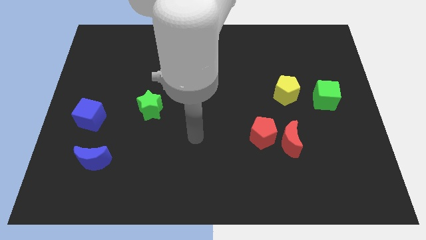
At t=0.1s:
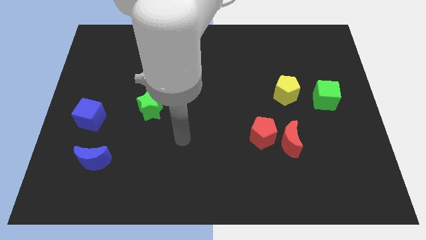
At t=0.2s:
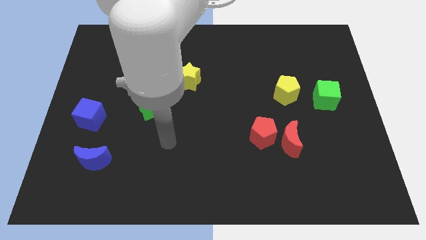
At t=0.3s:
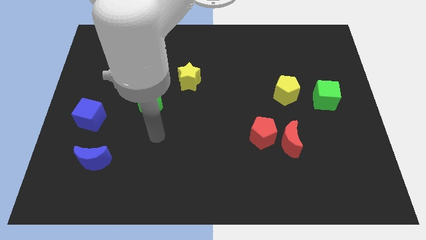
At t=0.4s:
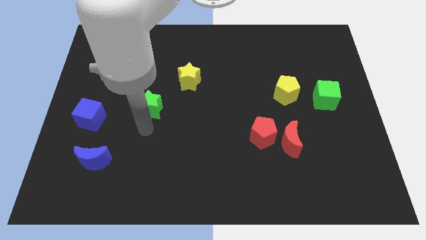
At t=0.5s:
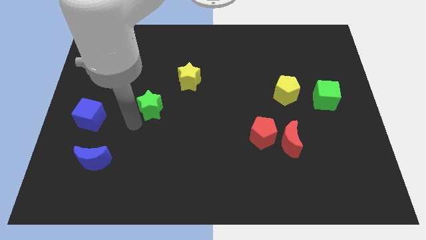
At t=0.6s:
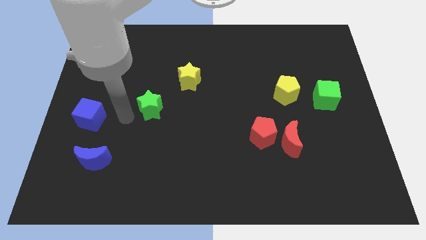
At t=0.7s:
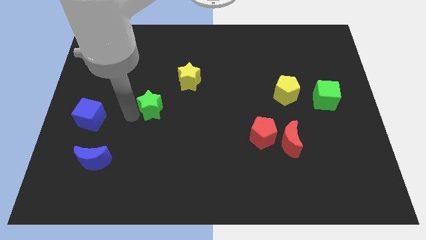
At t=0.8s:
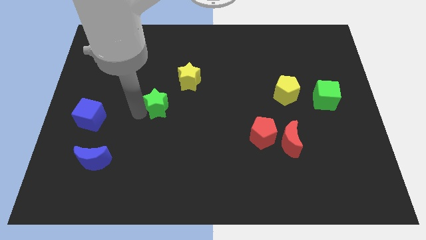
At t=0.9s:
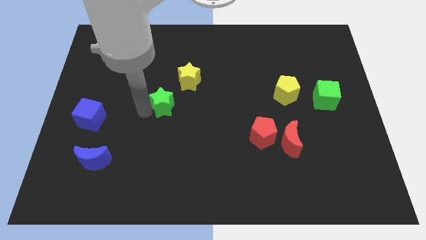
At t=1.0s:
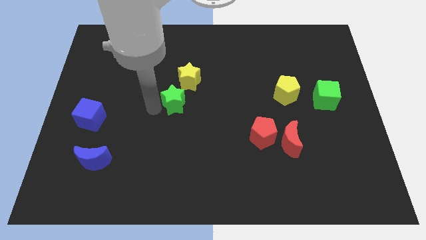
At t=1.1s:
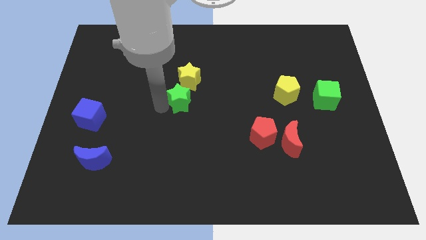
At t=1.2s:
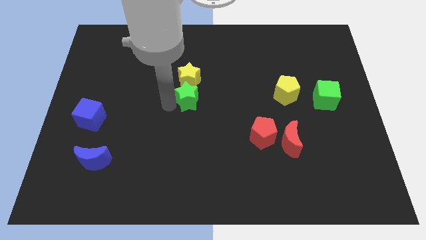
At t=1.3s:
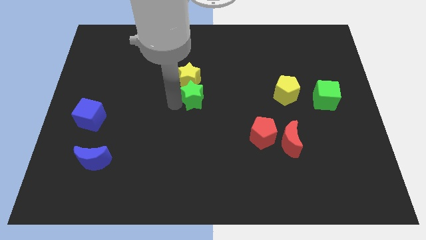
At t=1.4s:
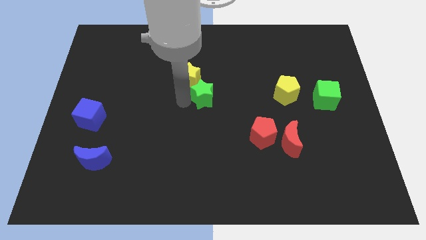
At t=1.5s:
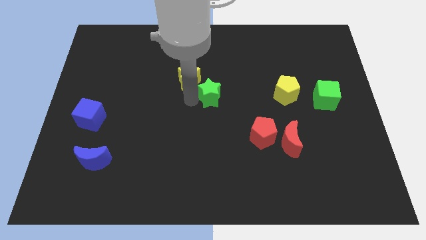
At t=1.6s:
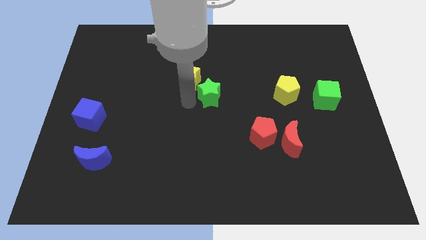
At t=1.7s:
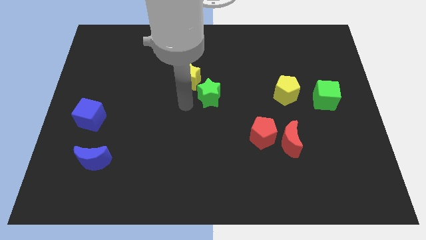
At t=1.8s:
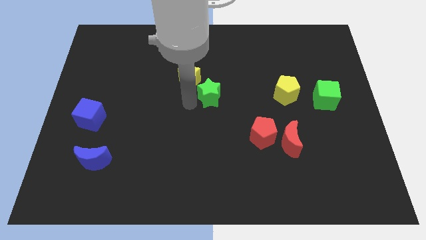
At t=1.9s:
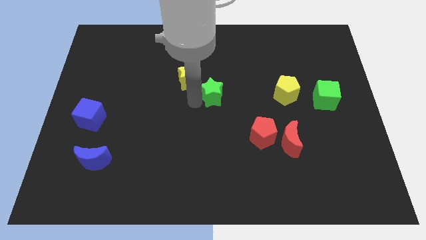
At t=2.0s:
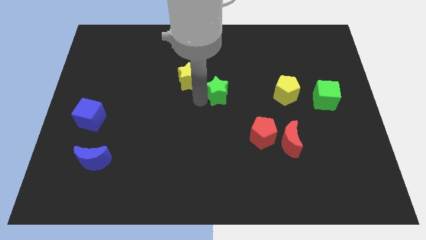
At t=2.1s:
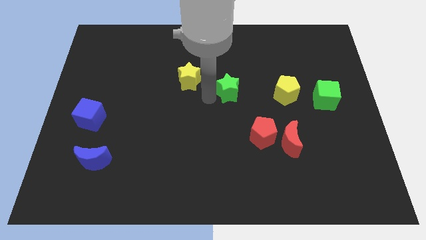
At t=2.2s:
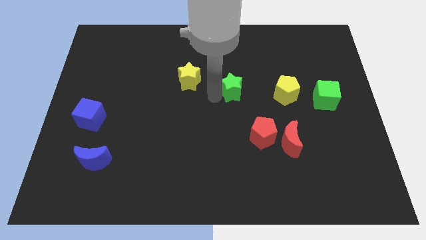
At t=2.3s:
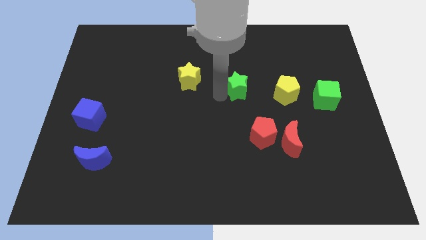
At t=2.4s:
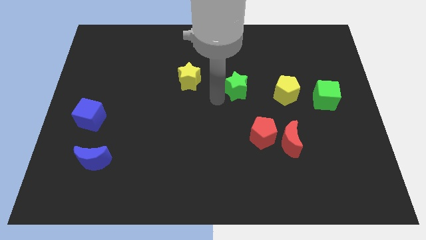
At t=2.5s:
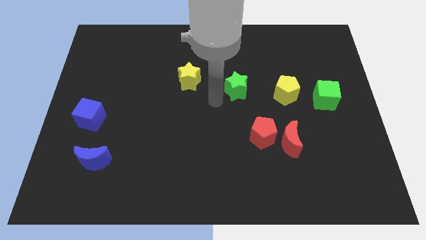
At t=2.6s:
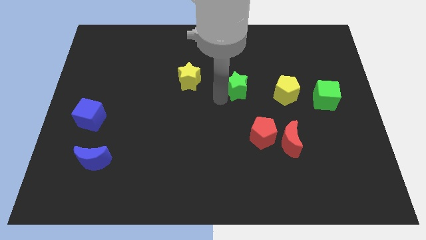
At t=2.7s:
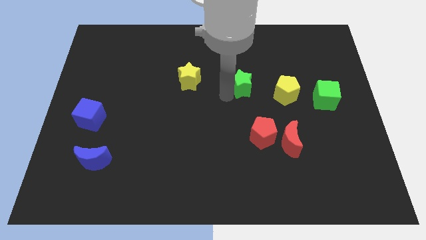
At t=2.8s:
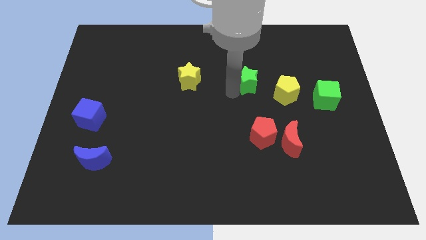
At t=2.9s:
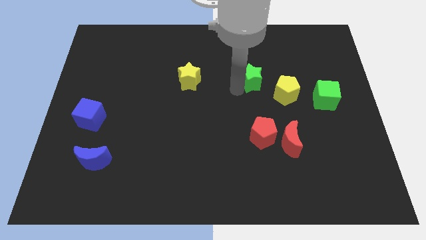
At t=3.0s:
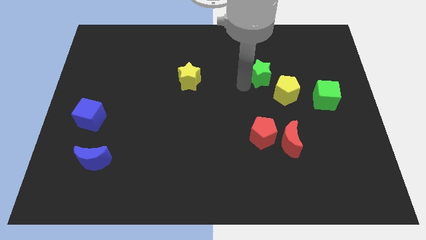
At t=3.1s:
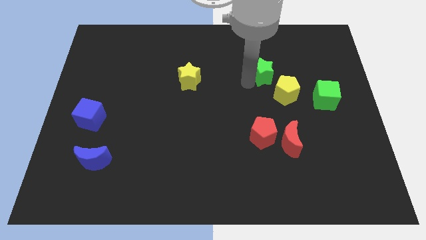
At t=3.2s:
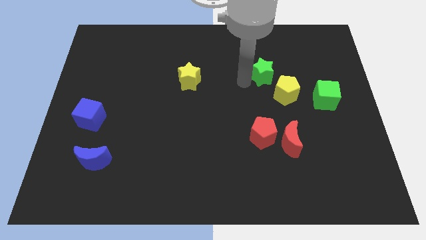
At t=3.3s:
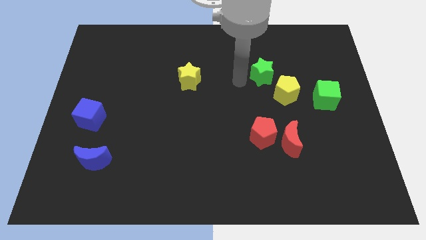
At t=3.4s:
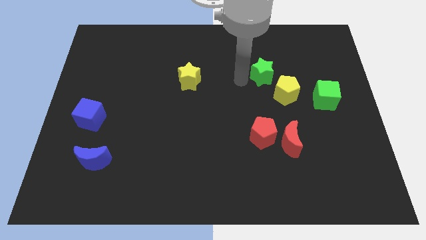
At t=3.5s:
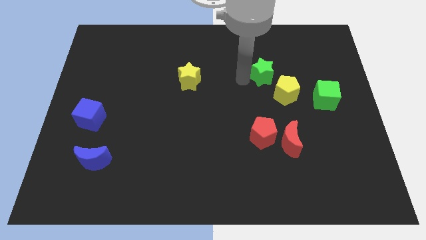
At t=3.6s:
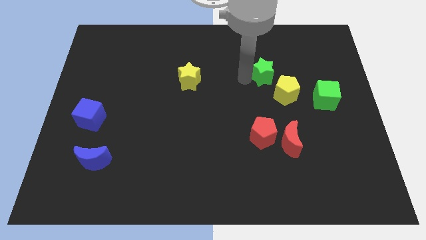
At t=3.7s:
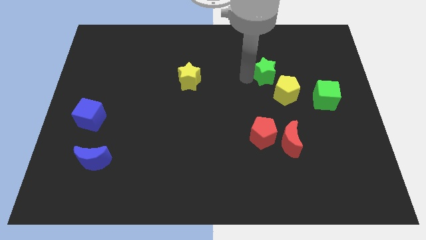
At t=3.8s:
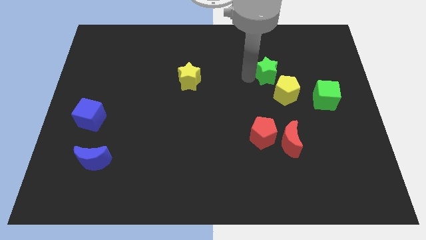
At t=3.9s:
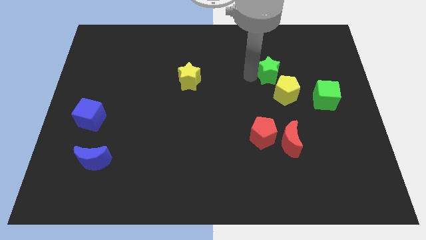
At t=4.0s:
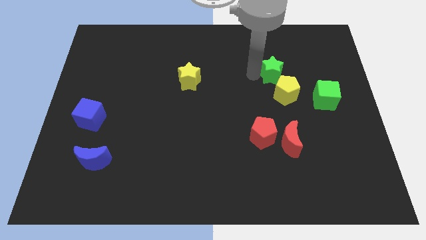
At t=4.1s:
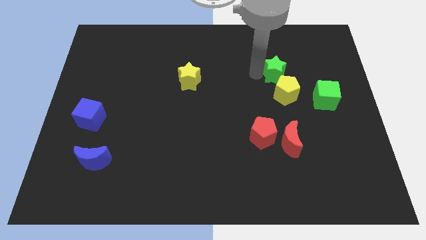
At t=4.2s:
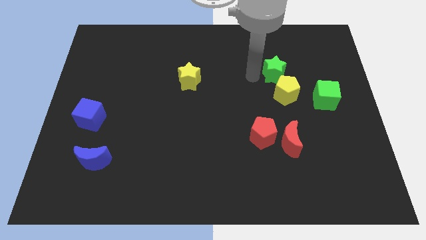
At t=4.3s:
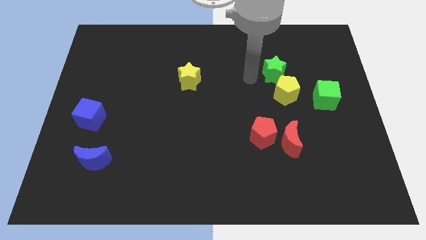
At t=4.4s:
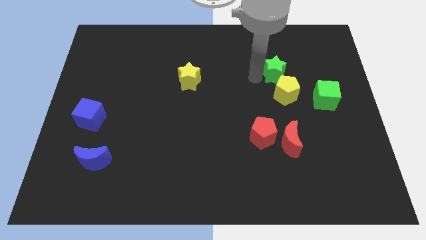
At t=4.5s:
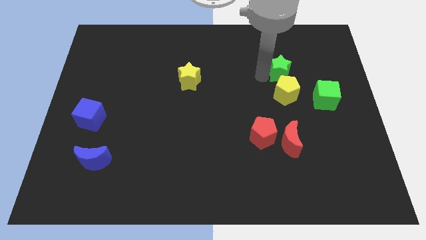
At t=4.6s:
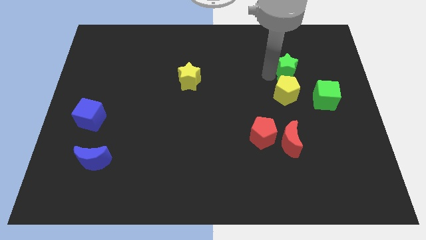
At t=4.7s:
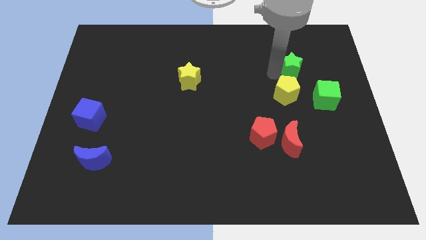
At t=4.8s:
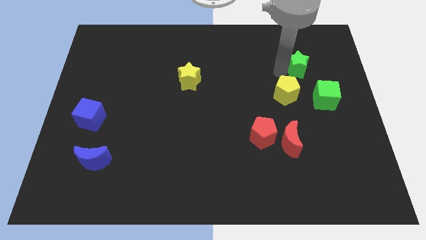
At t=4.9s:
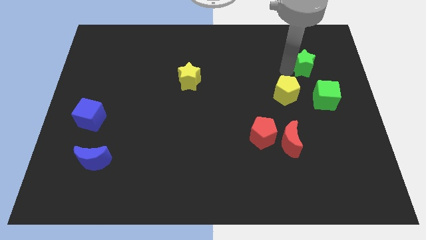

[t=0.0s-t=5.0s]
slide the green star to the top of the green cube

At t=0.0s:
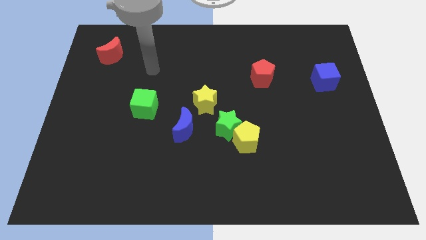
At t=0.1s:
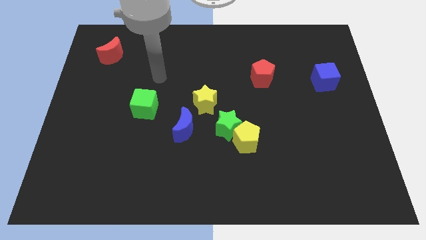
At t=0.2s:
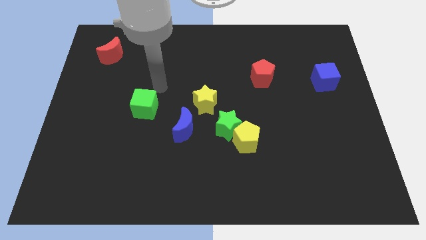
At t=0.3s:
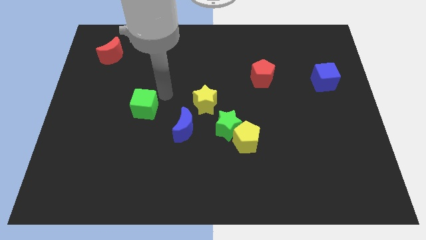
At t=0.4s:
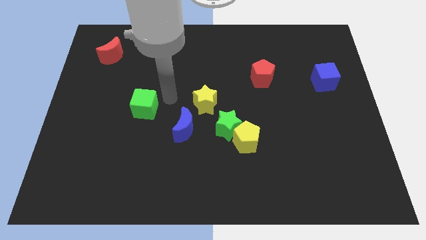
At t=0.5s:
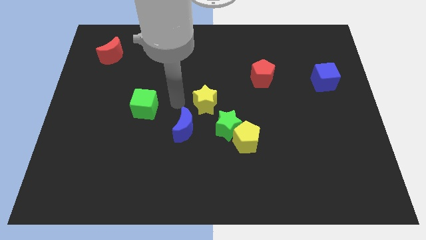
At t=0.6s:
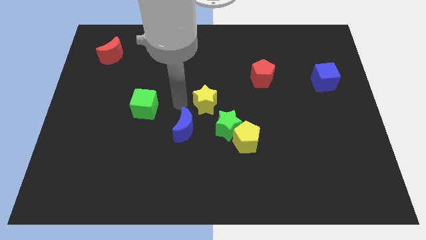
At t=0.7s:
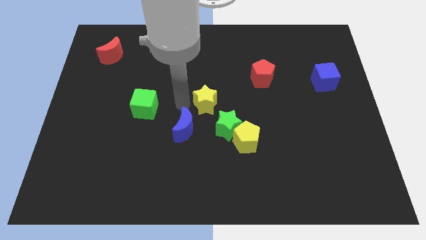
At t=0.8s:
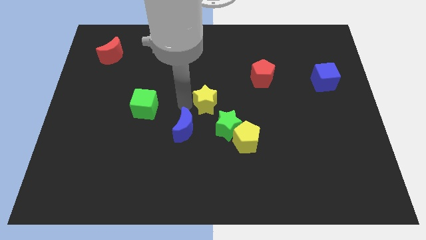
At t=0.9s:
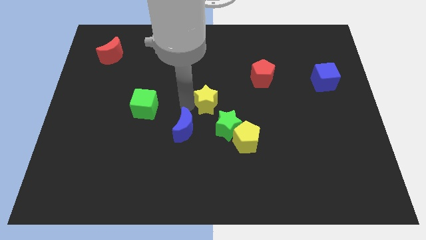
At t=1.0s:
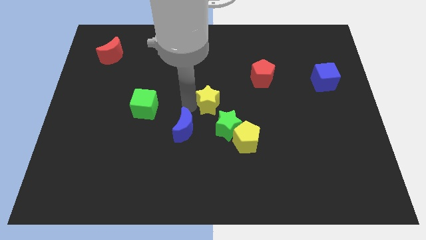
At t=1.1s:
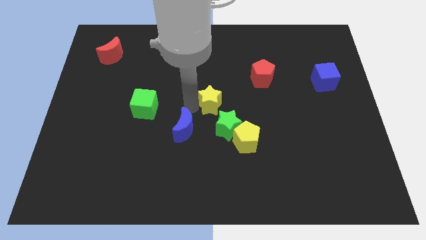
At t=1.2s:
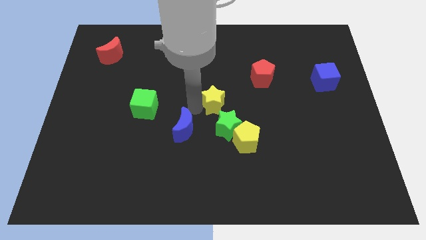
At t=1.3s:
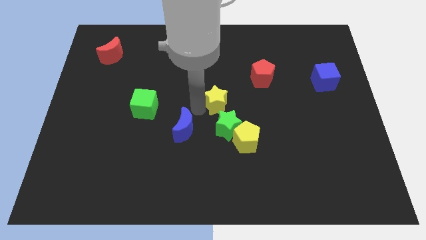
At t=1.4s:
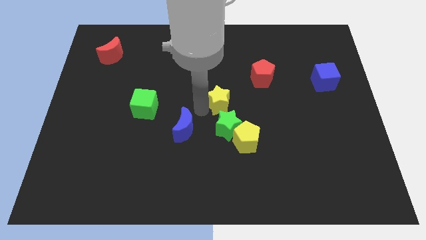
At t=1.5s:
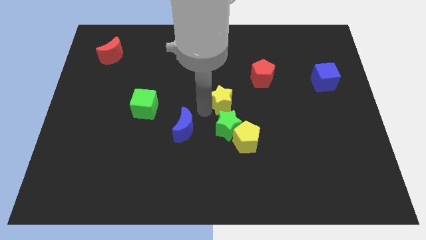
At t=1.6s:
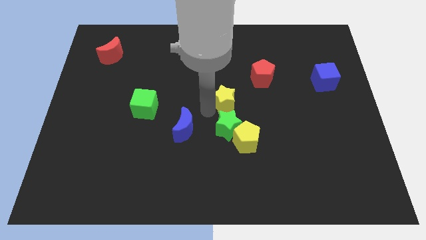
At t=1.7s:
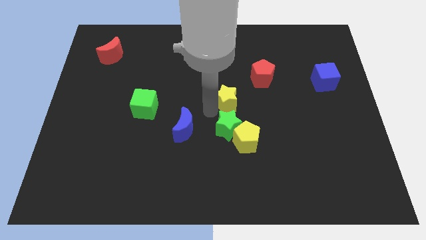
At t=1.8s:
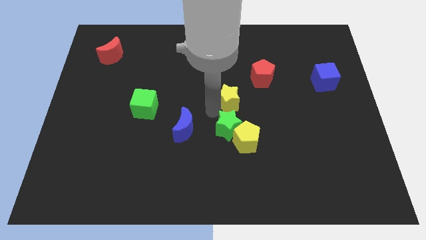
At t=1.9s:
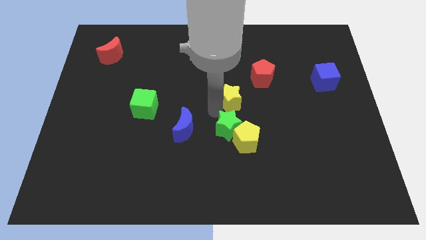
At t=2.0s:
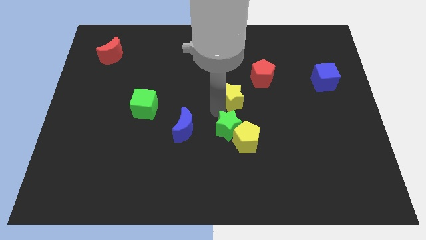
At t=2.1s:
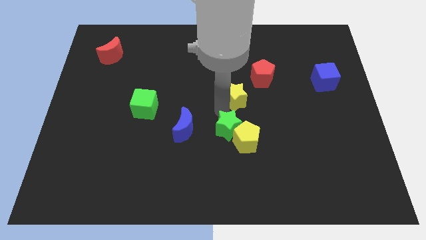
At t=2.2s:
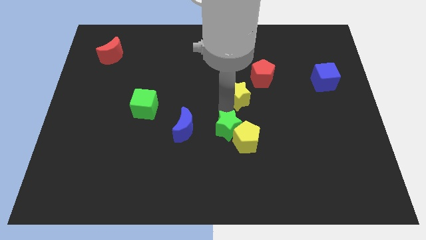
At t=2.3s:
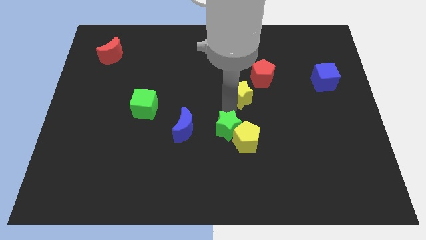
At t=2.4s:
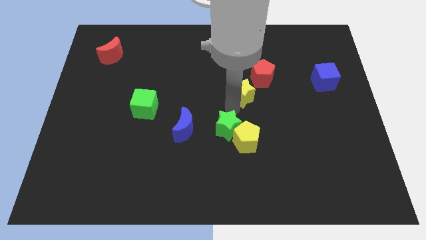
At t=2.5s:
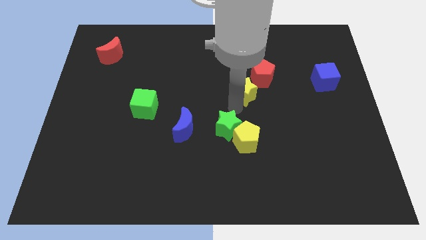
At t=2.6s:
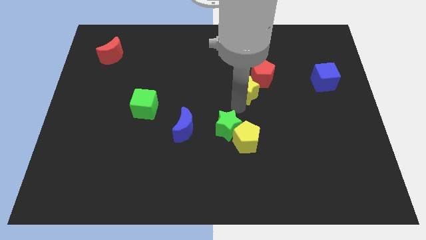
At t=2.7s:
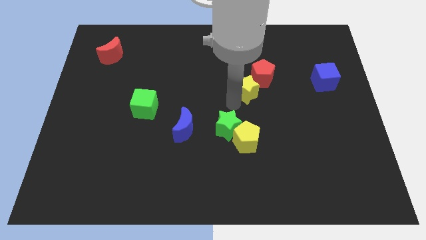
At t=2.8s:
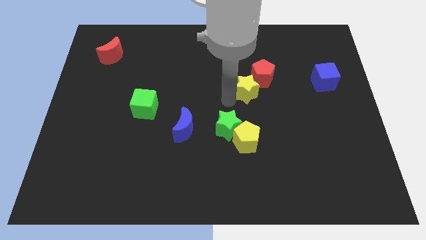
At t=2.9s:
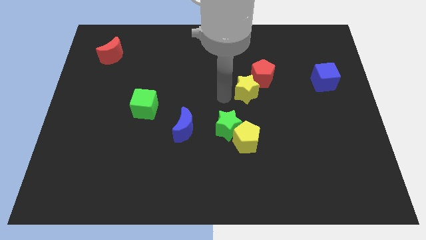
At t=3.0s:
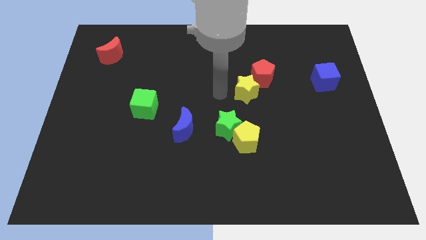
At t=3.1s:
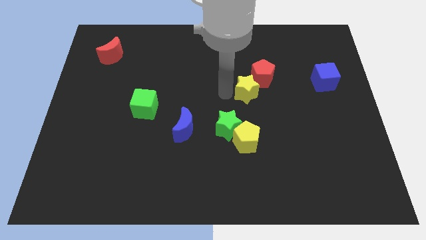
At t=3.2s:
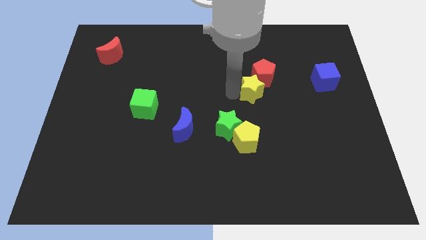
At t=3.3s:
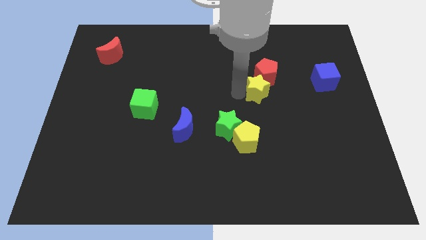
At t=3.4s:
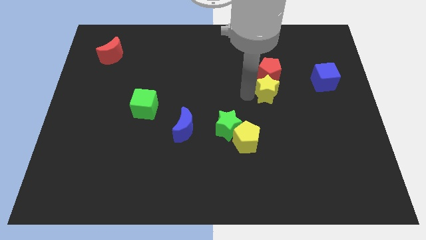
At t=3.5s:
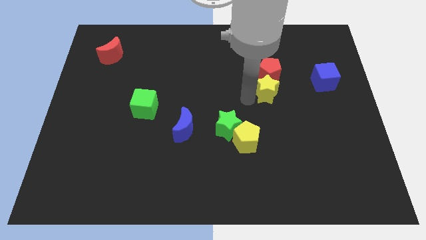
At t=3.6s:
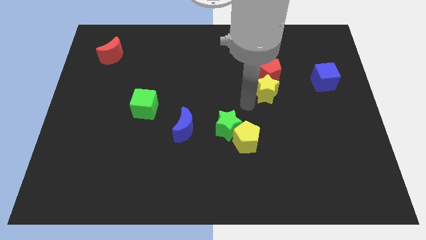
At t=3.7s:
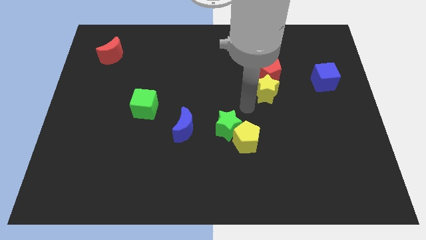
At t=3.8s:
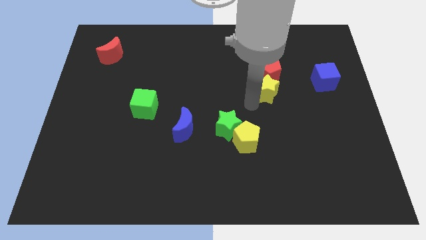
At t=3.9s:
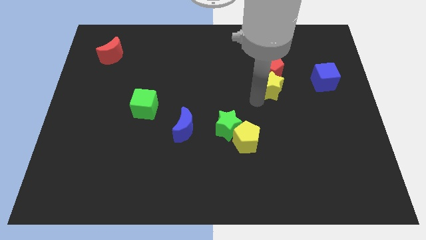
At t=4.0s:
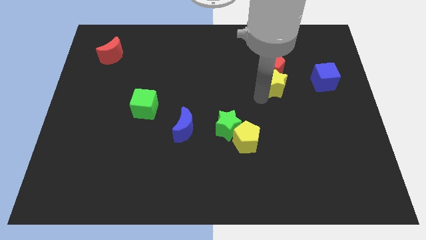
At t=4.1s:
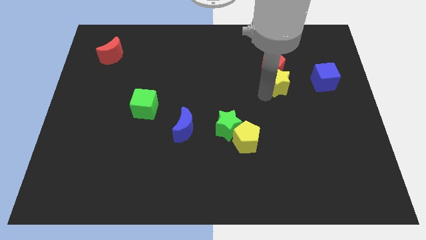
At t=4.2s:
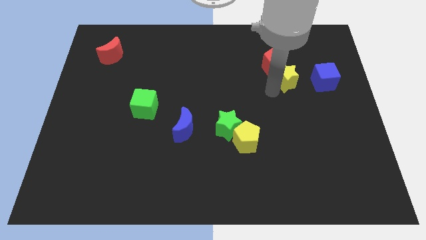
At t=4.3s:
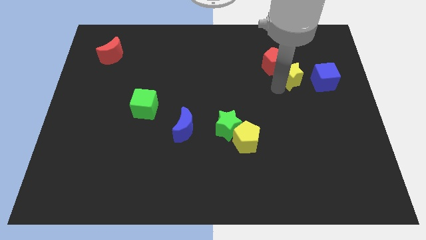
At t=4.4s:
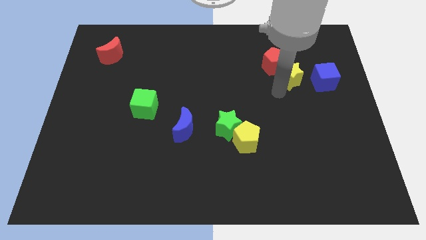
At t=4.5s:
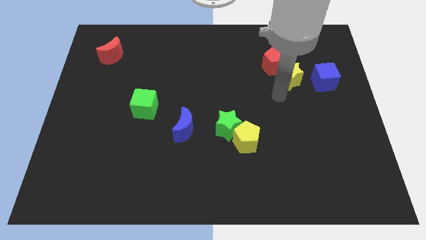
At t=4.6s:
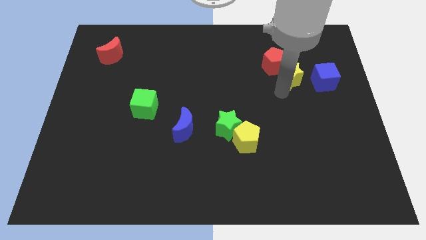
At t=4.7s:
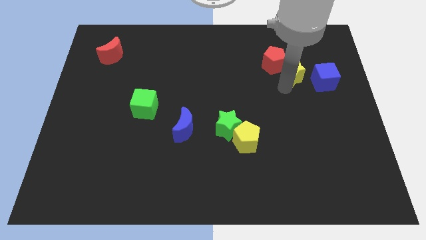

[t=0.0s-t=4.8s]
push the yellow star to the top left side of the blue cube
